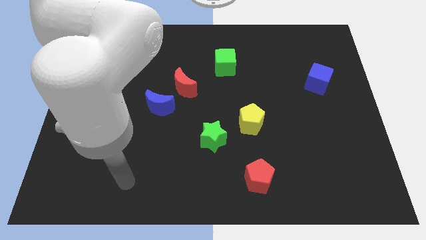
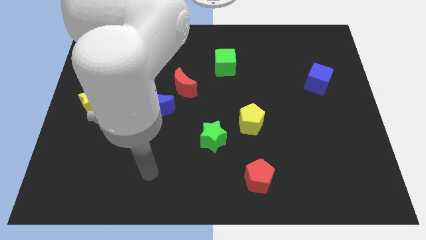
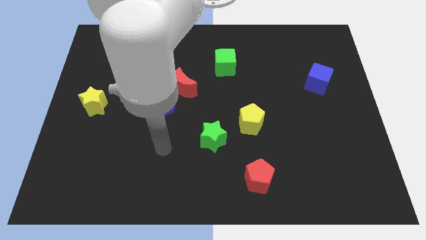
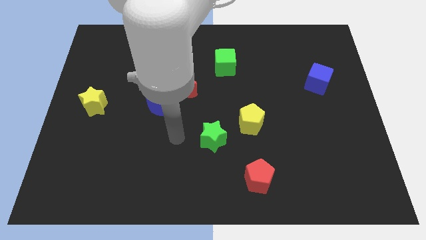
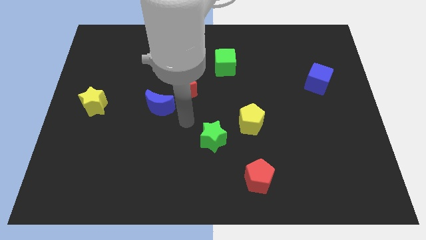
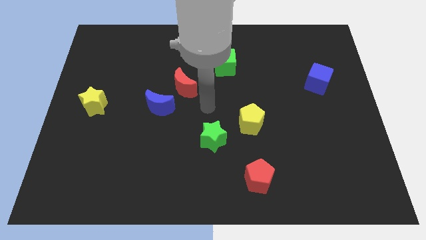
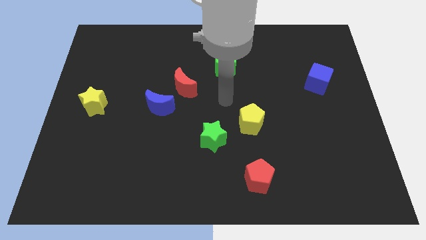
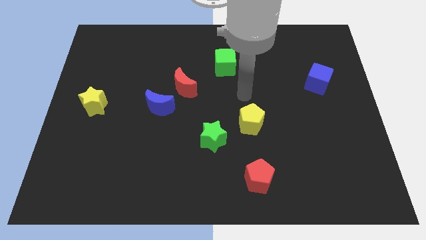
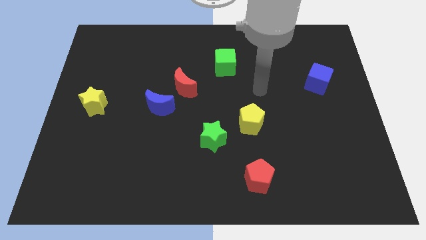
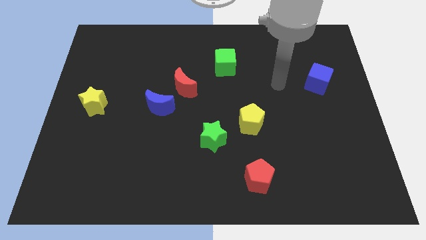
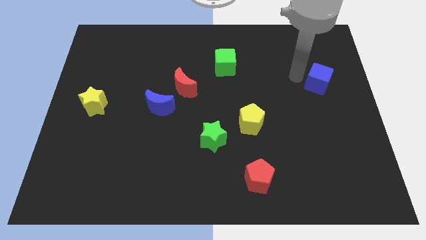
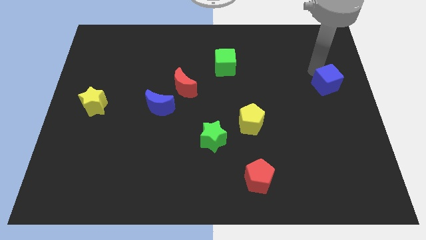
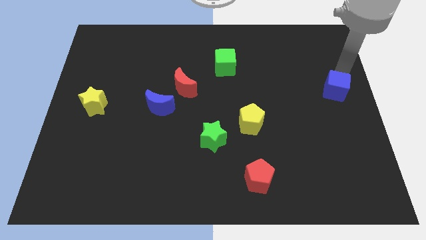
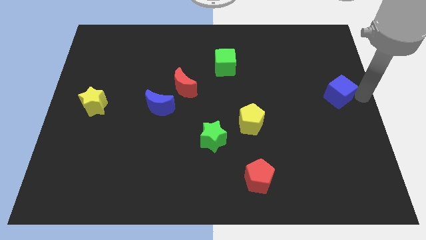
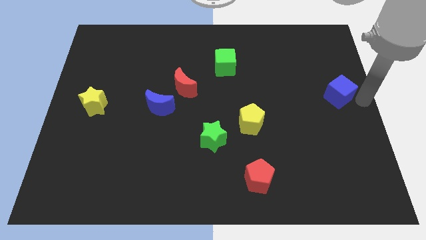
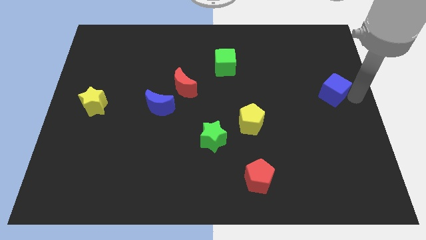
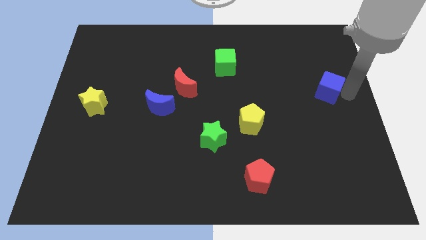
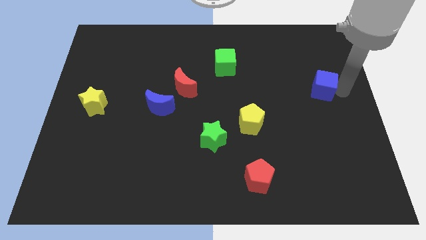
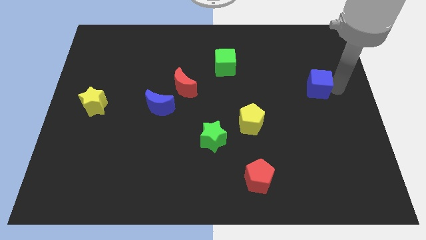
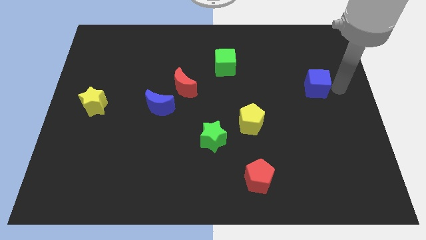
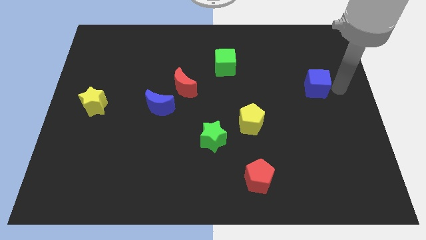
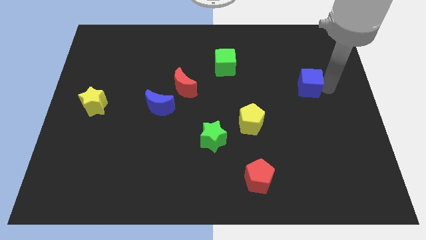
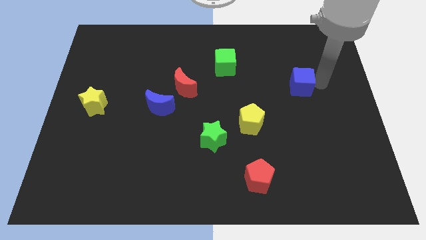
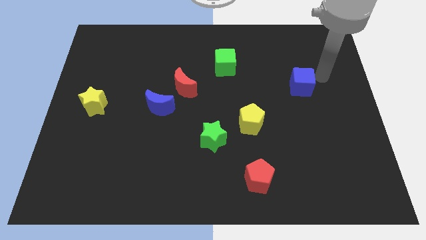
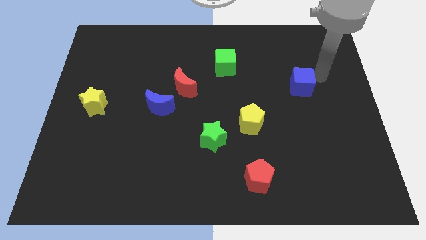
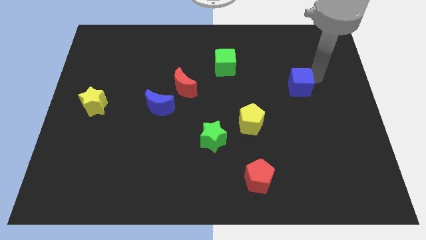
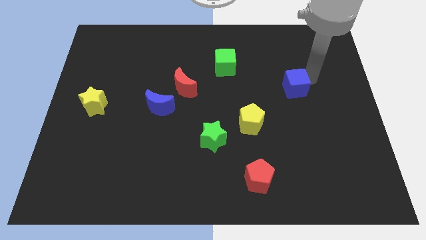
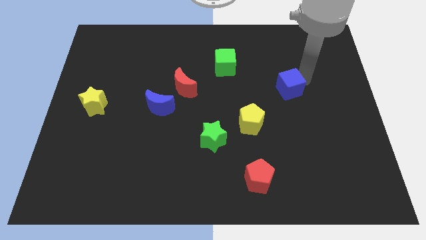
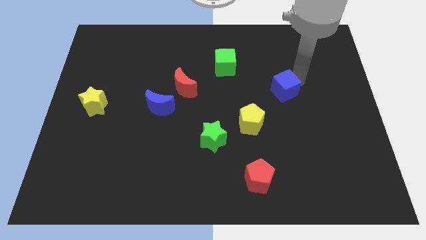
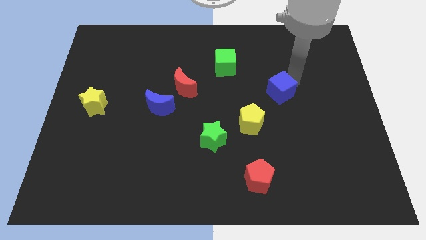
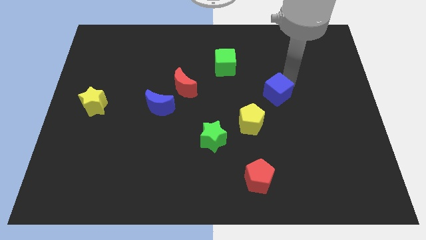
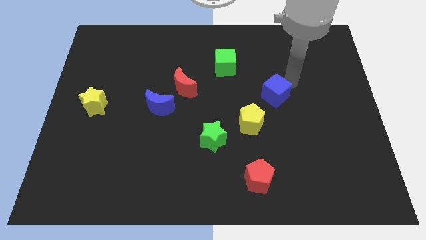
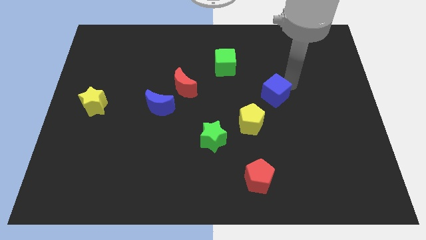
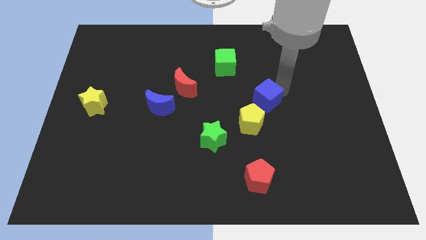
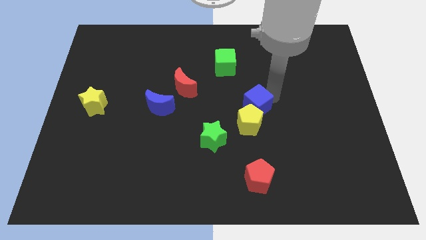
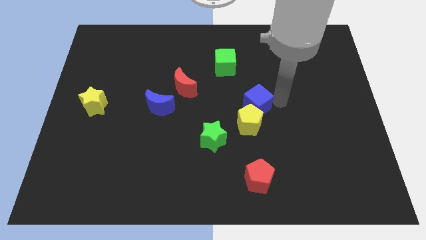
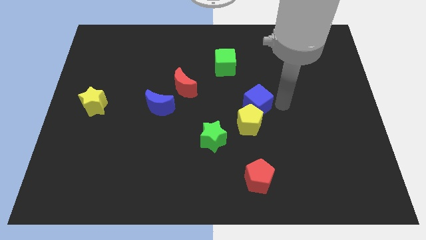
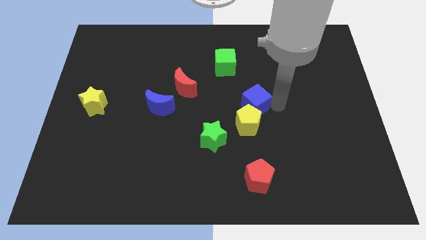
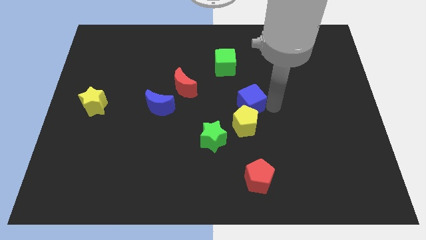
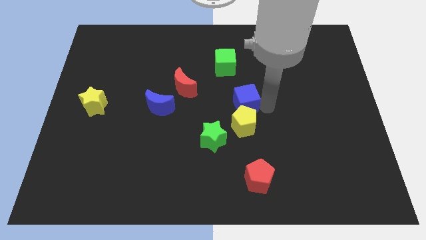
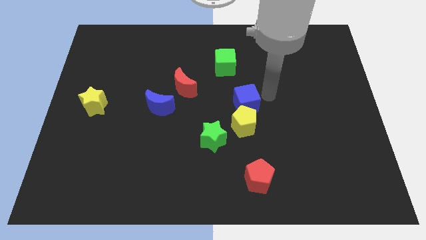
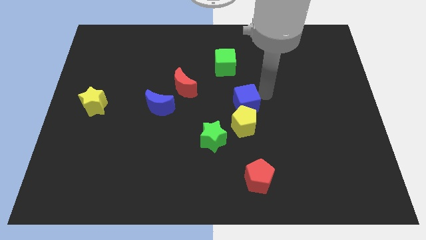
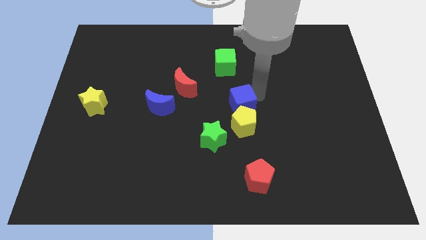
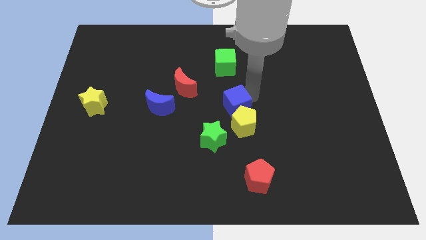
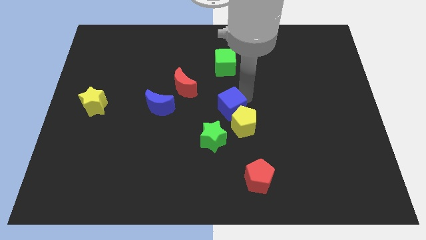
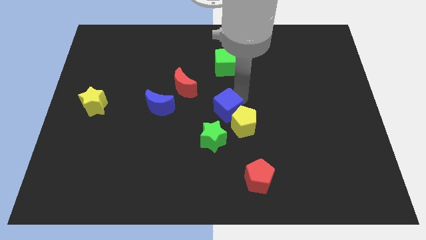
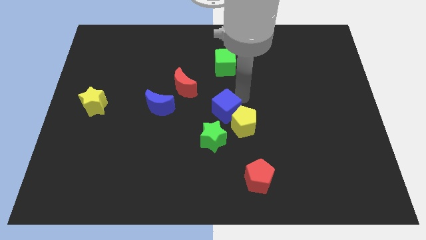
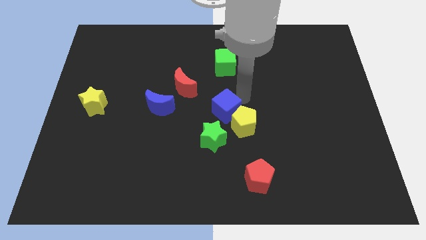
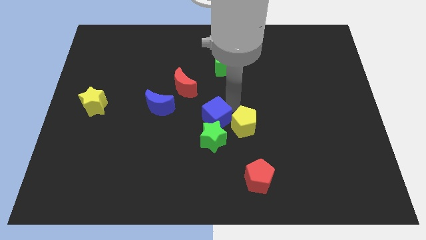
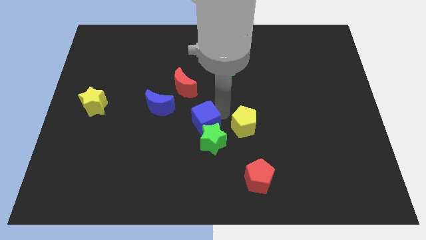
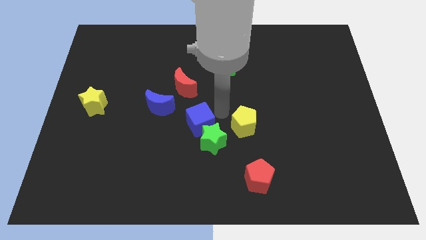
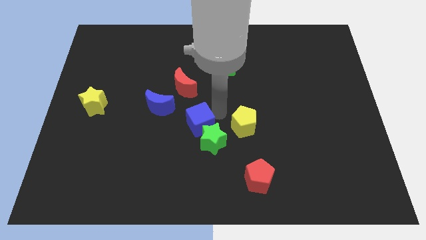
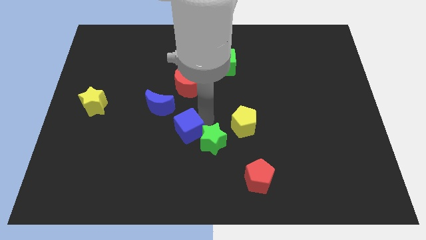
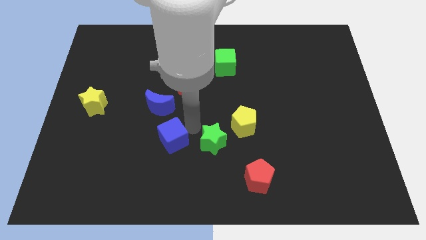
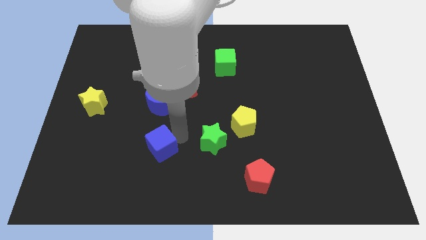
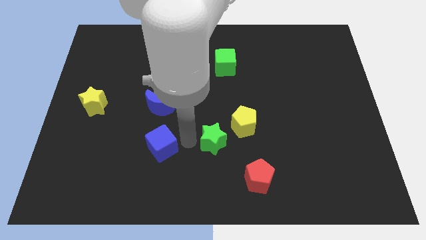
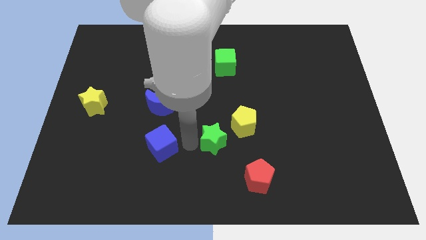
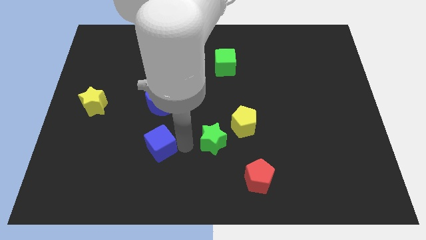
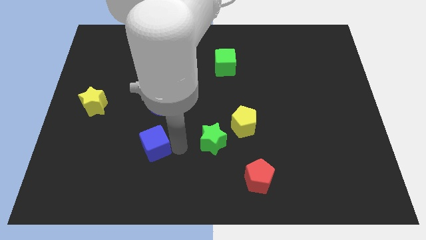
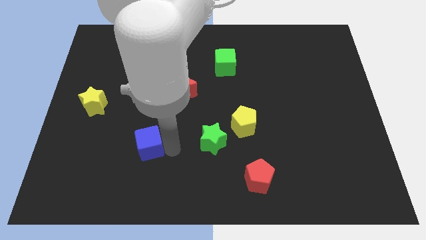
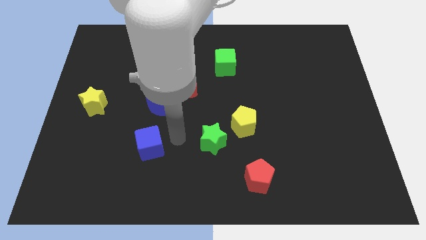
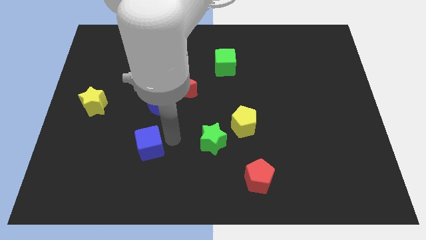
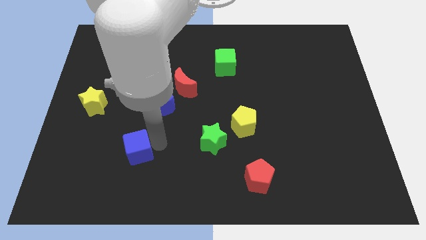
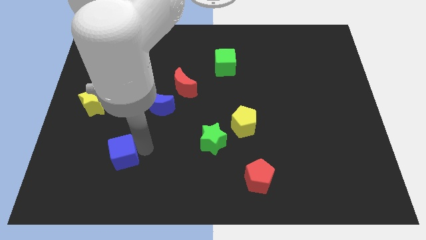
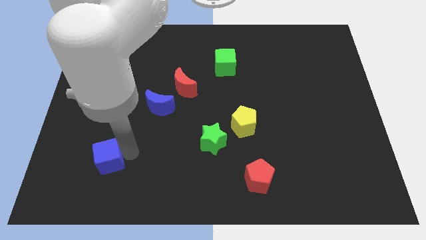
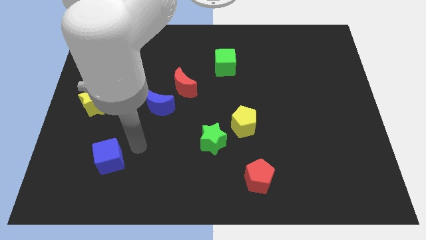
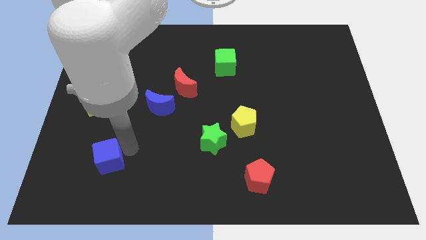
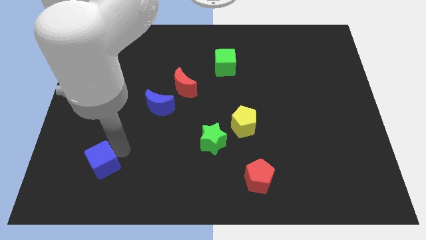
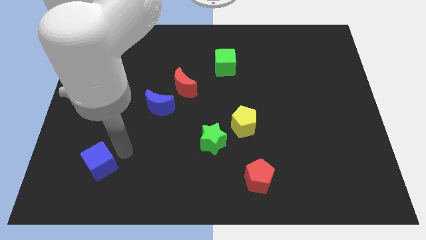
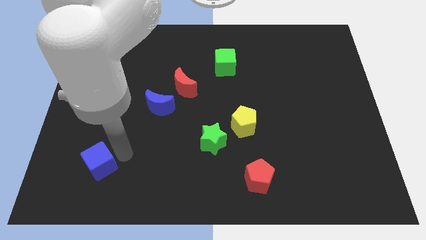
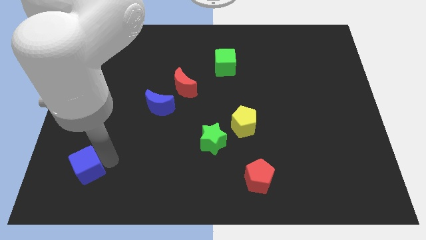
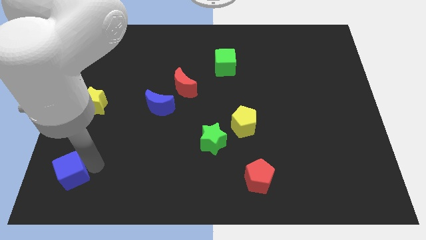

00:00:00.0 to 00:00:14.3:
move the blue cube to the bottom left corner
